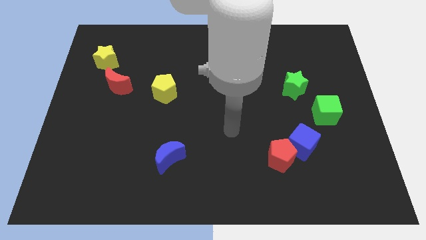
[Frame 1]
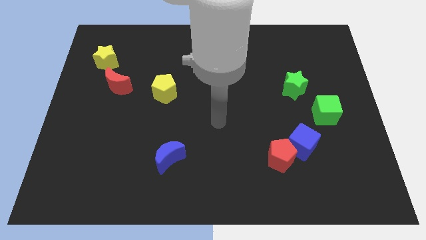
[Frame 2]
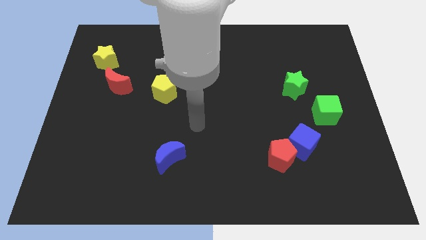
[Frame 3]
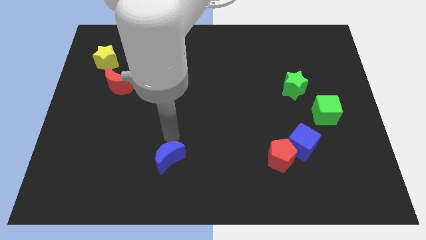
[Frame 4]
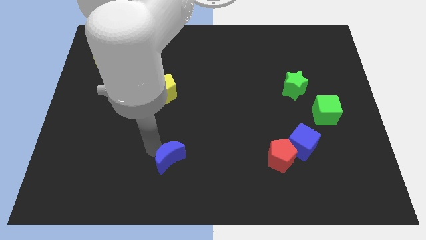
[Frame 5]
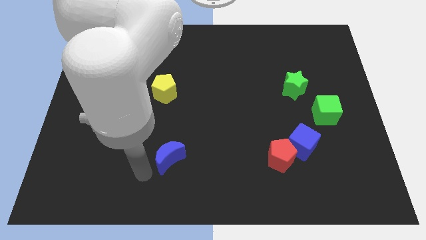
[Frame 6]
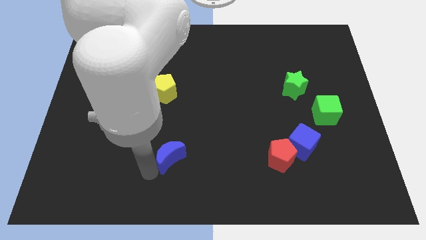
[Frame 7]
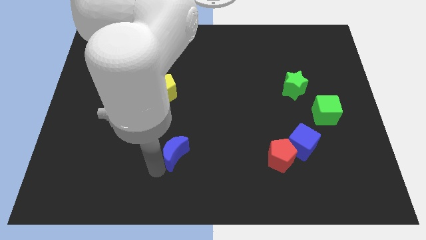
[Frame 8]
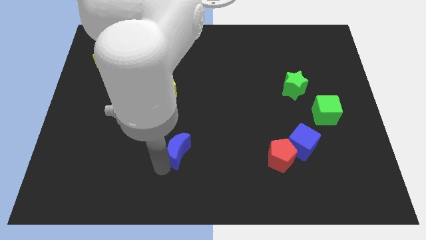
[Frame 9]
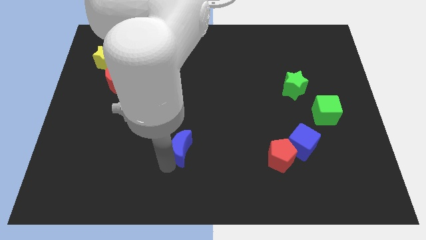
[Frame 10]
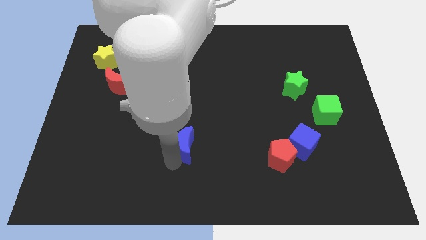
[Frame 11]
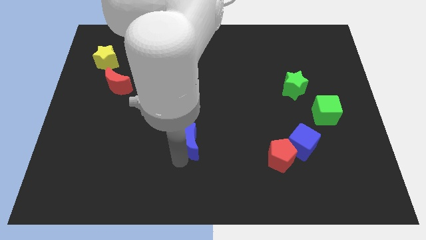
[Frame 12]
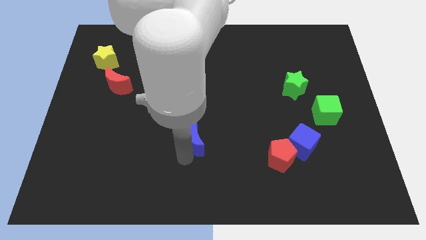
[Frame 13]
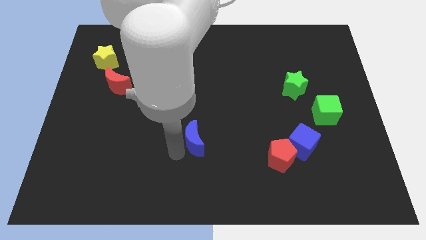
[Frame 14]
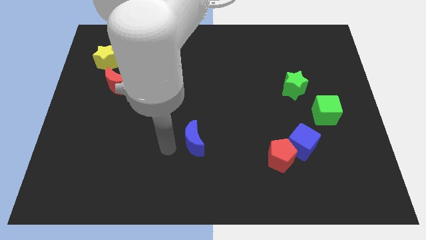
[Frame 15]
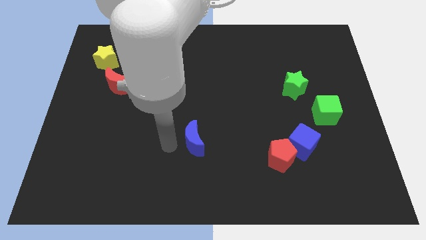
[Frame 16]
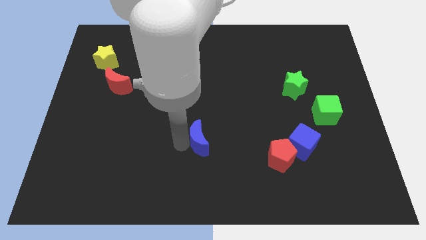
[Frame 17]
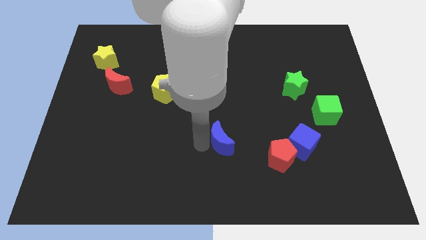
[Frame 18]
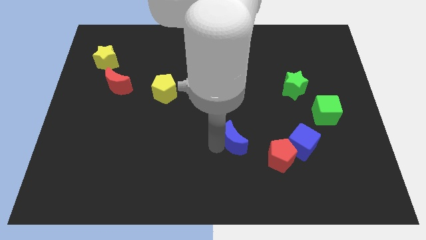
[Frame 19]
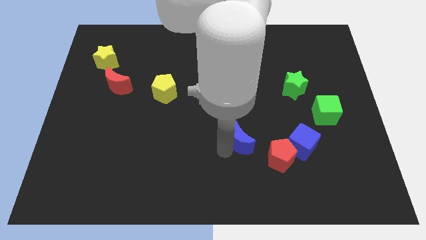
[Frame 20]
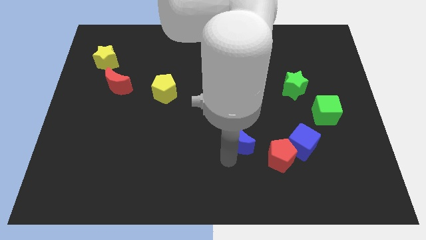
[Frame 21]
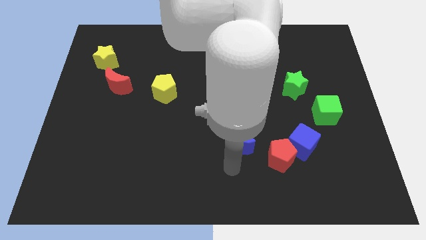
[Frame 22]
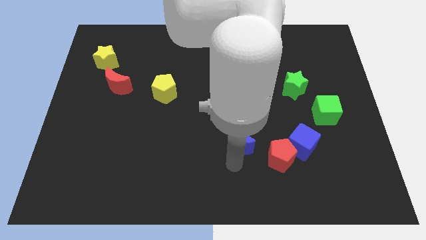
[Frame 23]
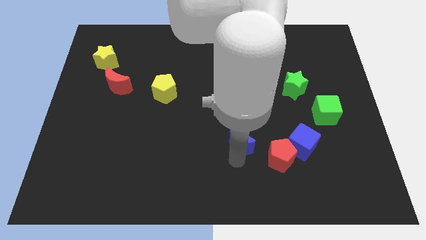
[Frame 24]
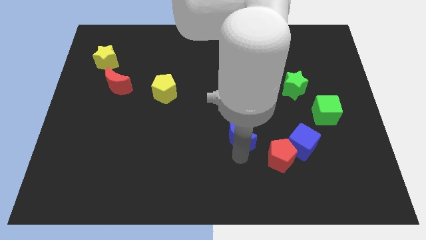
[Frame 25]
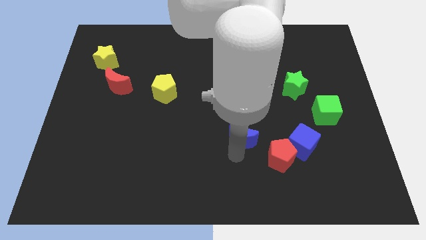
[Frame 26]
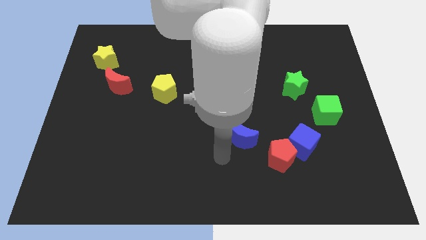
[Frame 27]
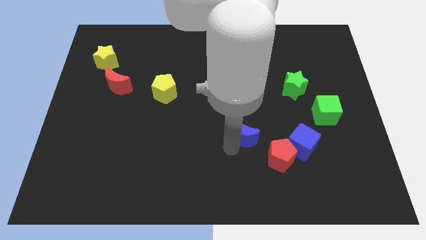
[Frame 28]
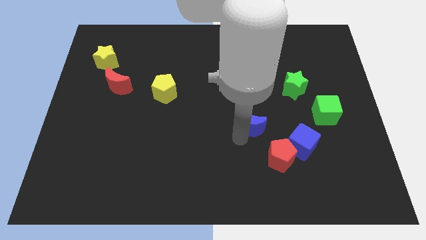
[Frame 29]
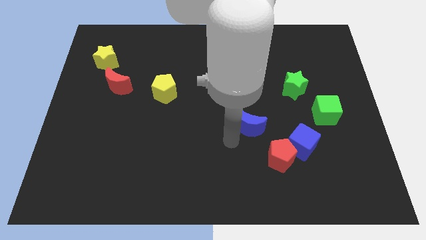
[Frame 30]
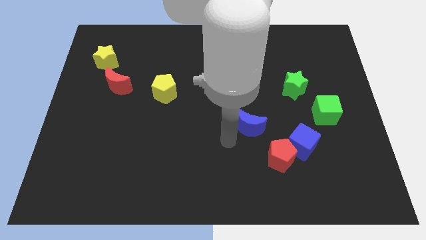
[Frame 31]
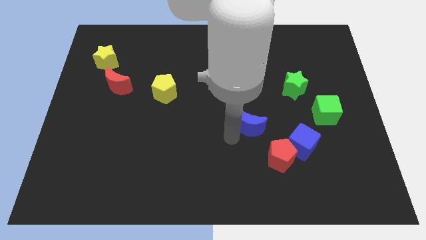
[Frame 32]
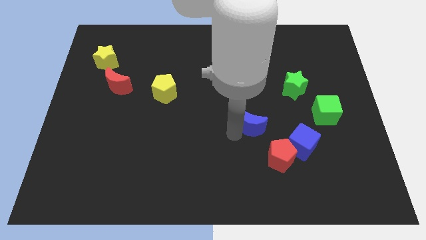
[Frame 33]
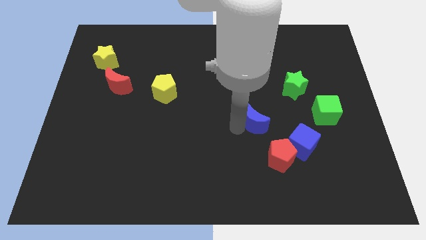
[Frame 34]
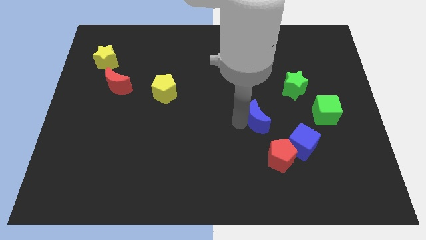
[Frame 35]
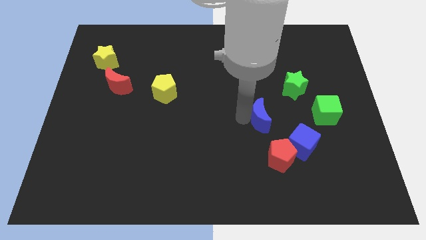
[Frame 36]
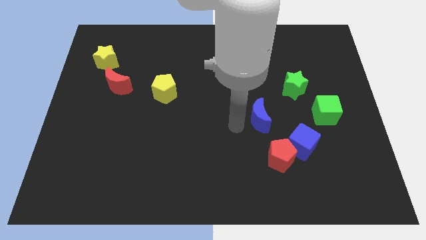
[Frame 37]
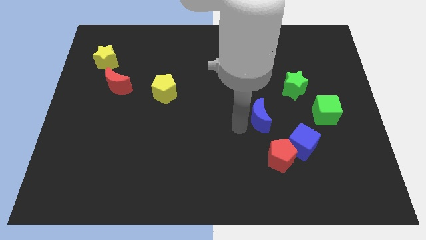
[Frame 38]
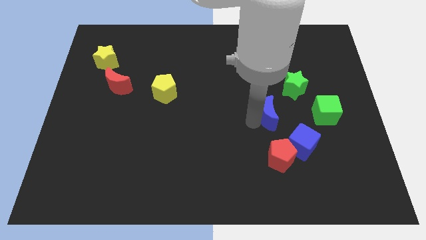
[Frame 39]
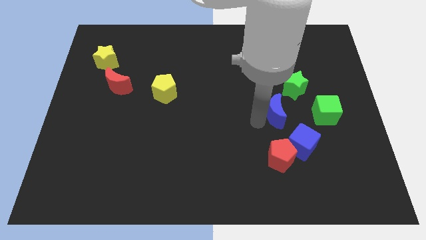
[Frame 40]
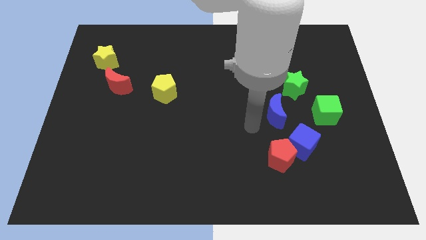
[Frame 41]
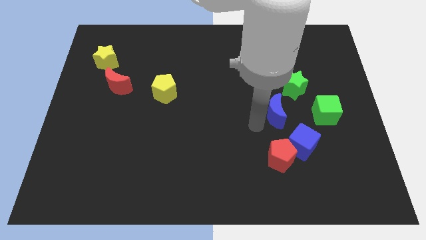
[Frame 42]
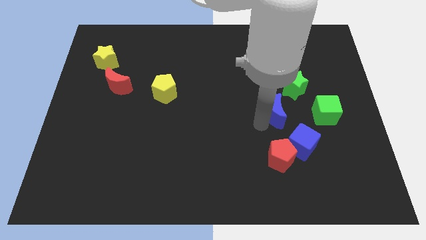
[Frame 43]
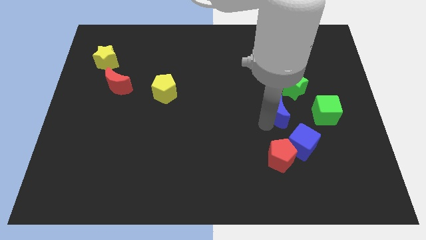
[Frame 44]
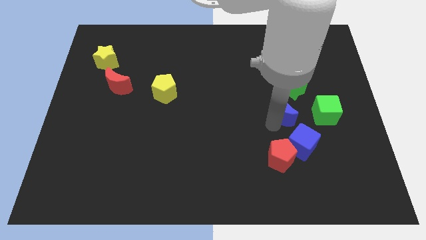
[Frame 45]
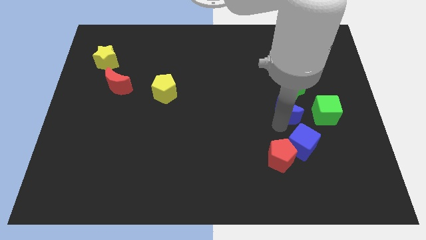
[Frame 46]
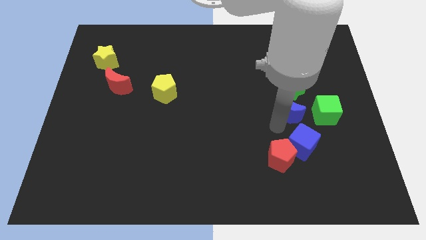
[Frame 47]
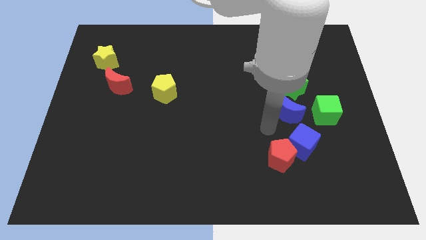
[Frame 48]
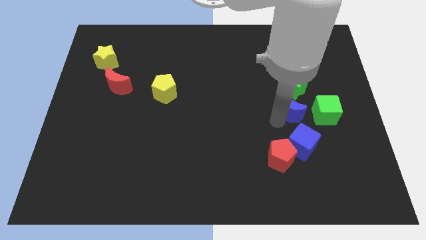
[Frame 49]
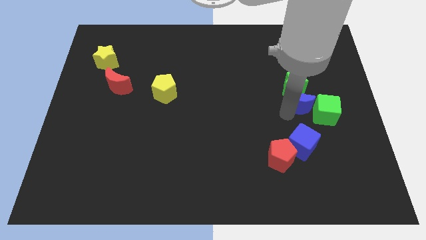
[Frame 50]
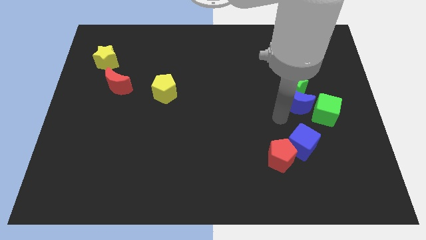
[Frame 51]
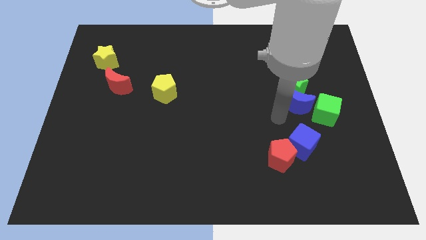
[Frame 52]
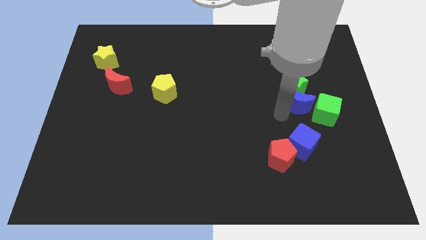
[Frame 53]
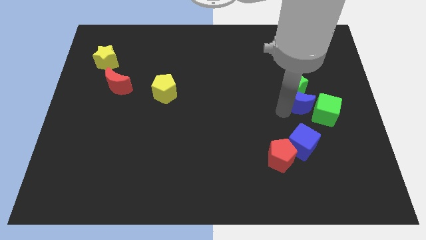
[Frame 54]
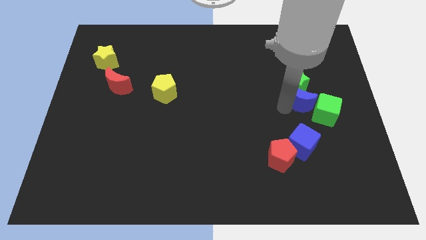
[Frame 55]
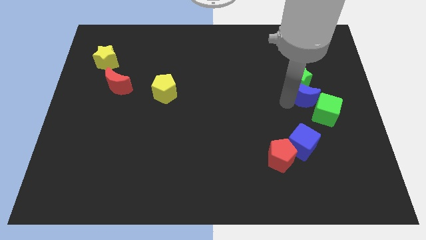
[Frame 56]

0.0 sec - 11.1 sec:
move the blue moon above the green cube

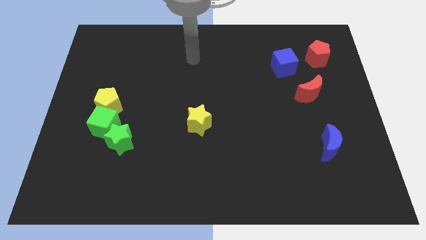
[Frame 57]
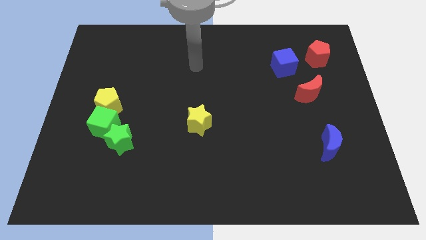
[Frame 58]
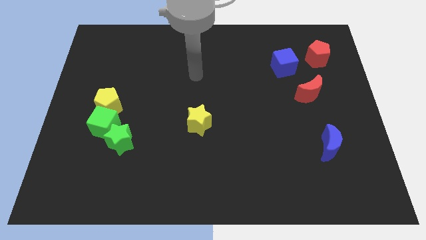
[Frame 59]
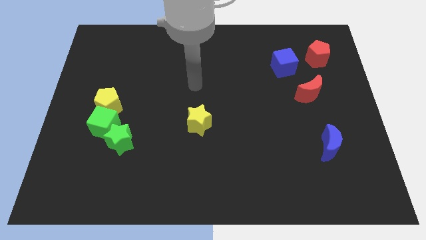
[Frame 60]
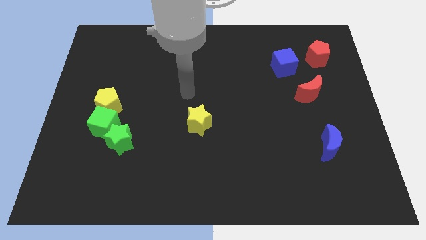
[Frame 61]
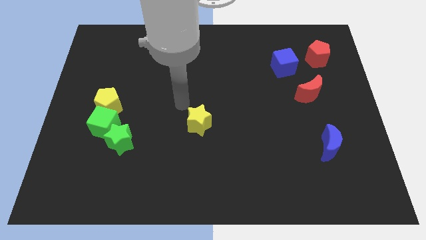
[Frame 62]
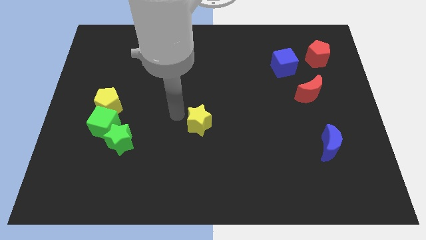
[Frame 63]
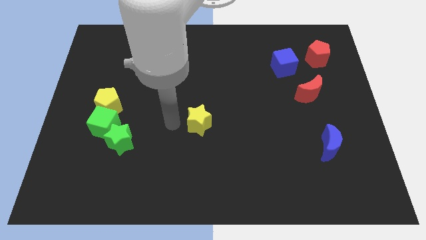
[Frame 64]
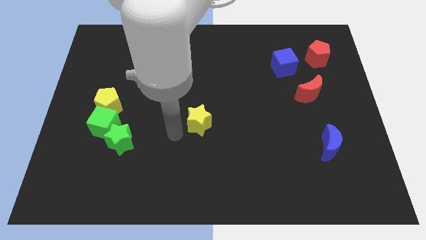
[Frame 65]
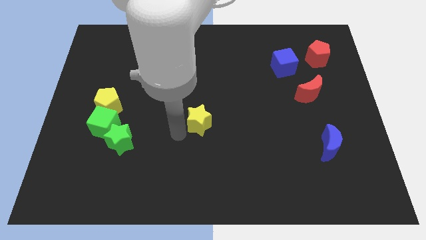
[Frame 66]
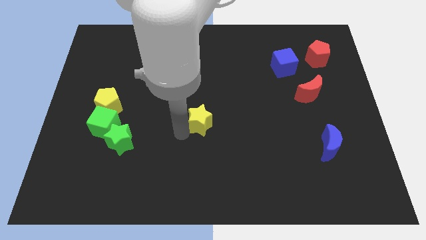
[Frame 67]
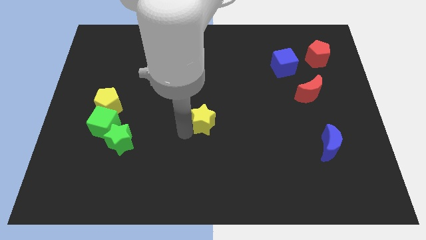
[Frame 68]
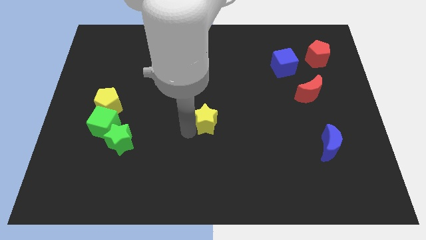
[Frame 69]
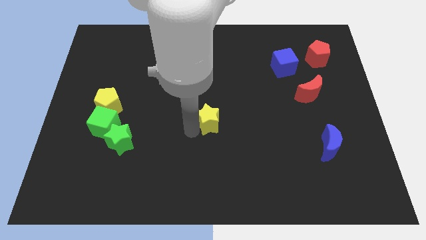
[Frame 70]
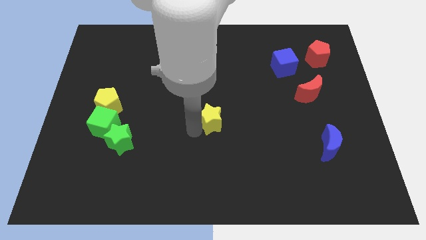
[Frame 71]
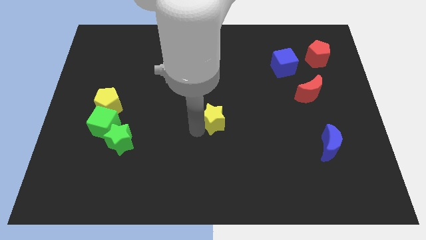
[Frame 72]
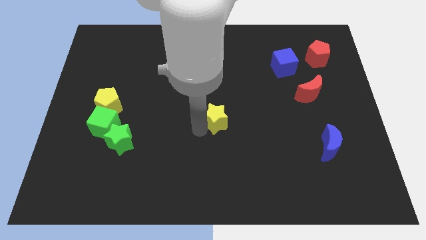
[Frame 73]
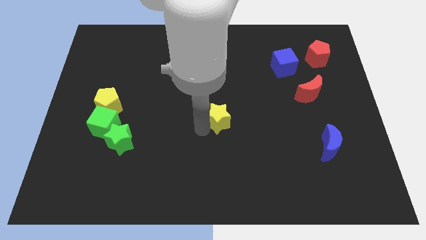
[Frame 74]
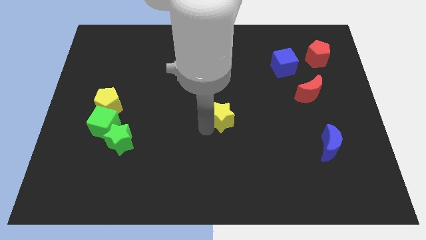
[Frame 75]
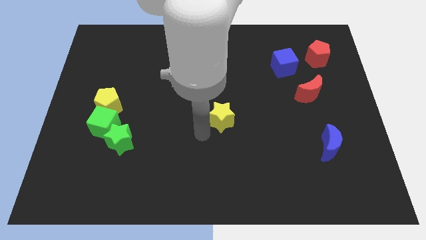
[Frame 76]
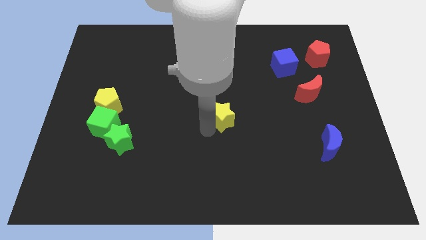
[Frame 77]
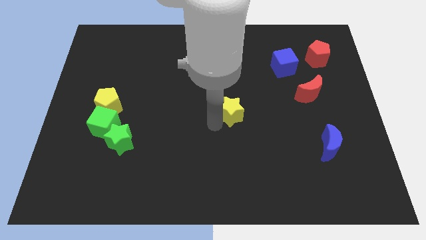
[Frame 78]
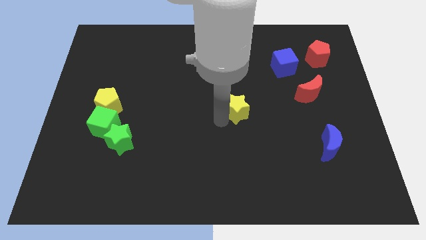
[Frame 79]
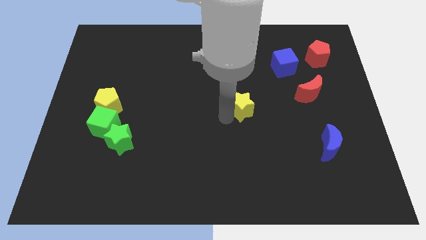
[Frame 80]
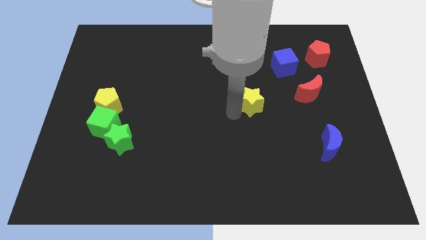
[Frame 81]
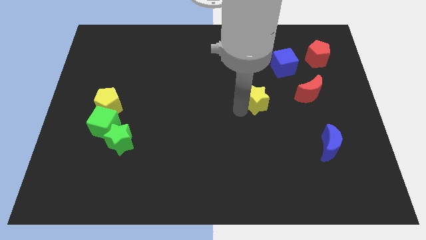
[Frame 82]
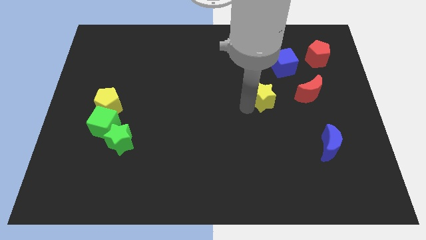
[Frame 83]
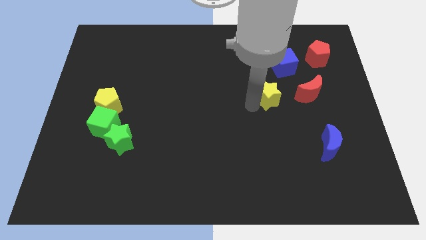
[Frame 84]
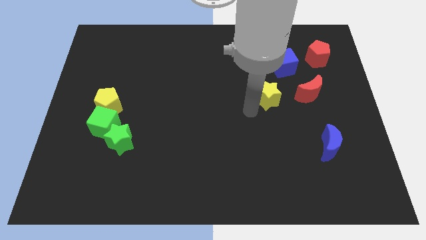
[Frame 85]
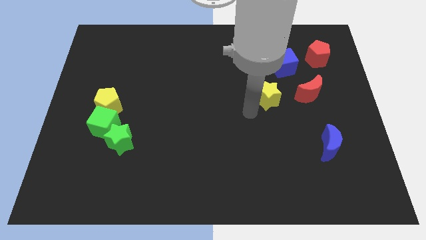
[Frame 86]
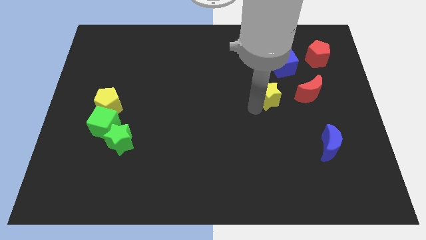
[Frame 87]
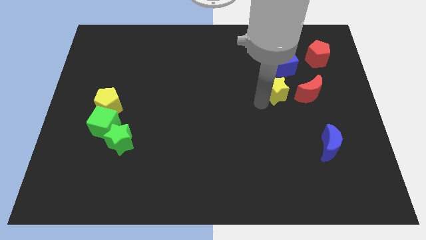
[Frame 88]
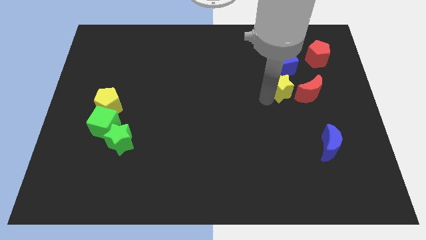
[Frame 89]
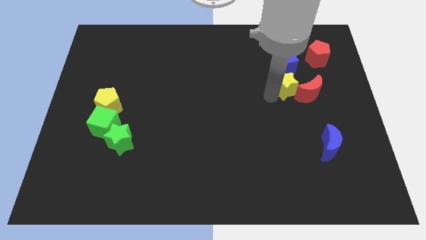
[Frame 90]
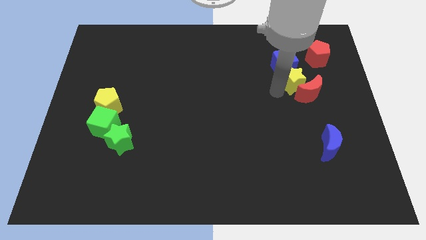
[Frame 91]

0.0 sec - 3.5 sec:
put the yellow star diagonally down and to the left of the red pentagon
